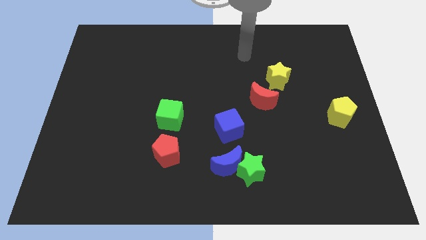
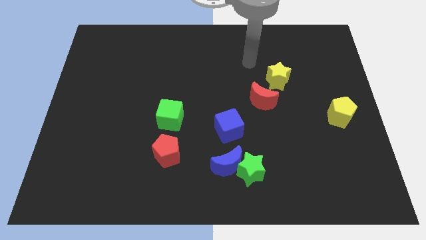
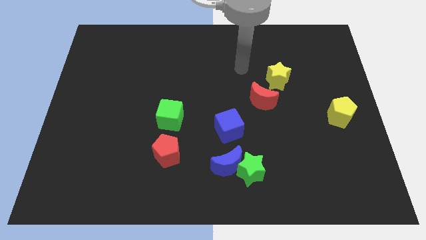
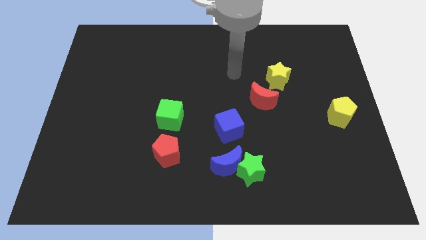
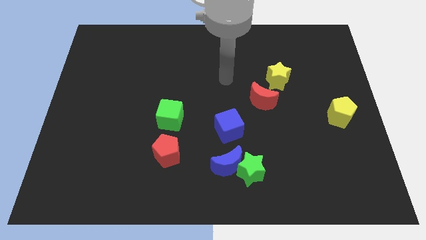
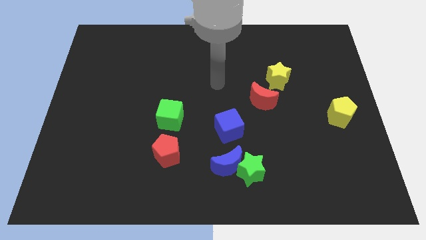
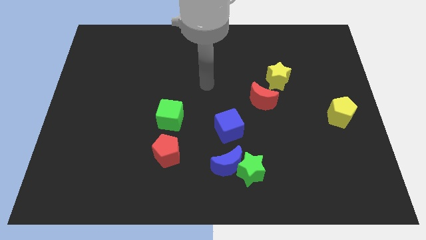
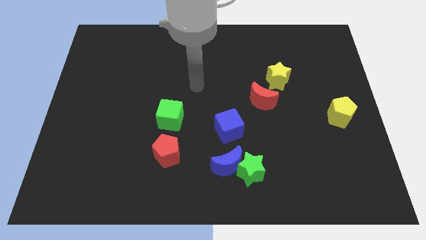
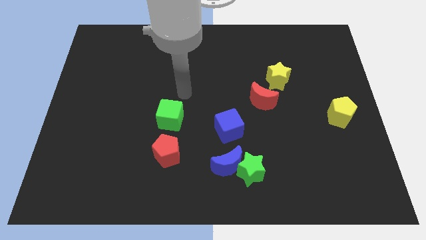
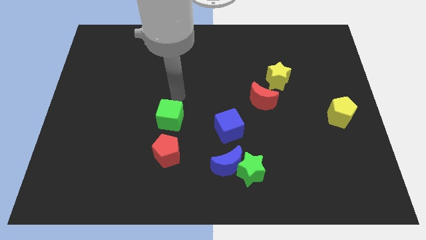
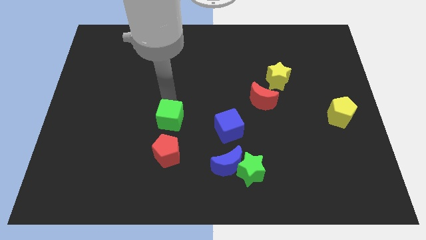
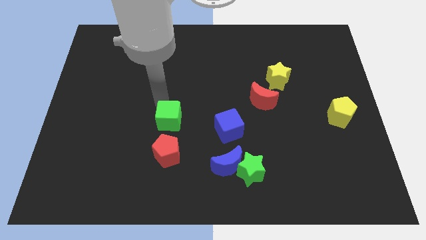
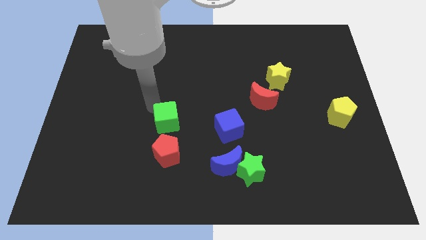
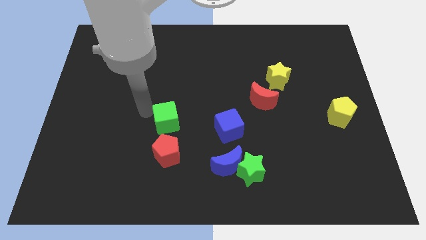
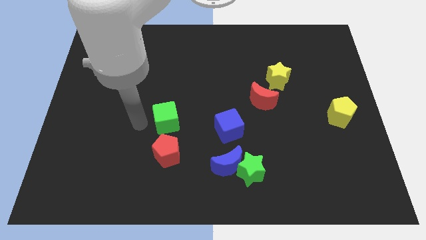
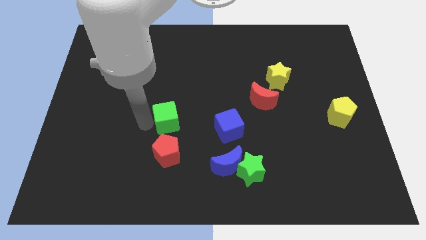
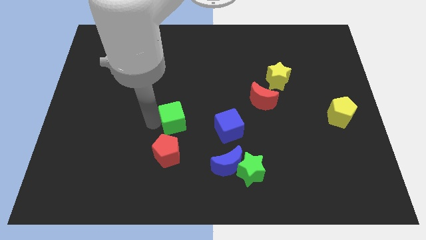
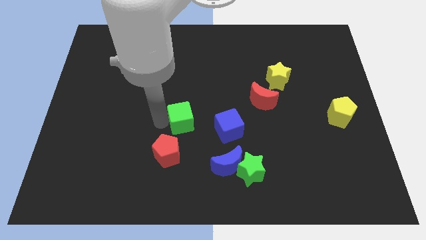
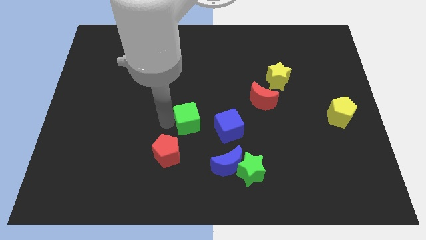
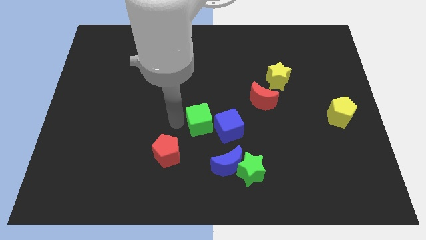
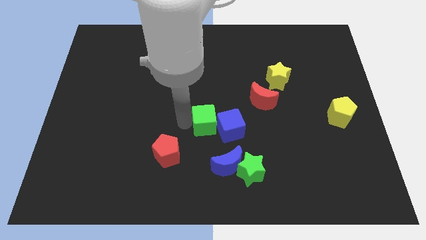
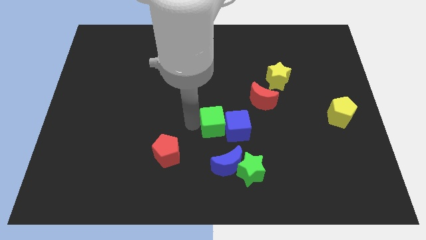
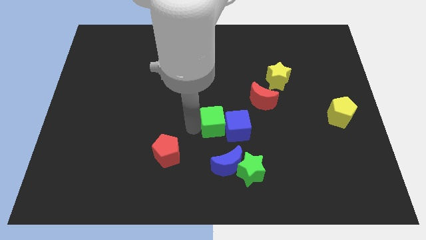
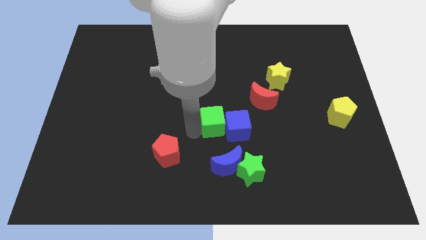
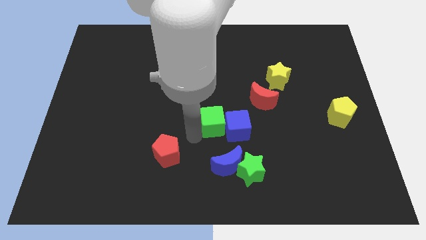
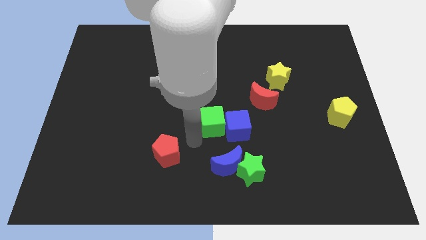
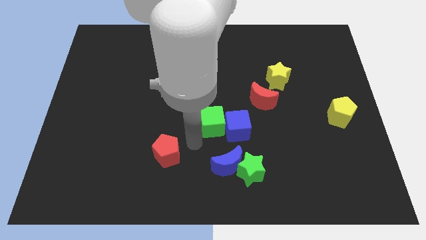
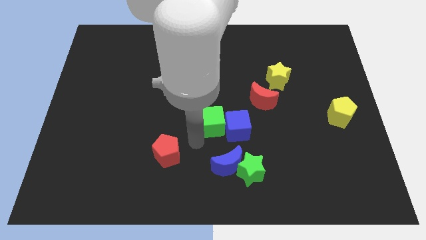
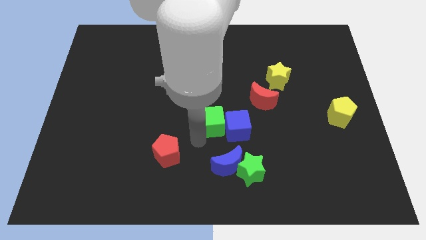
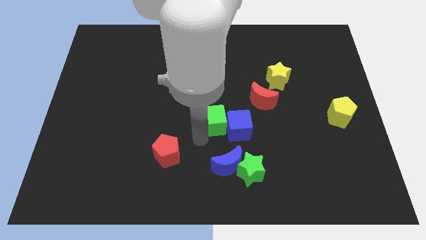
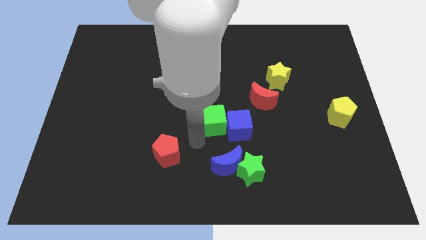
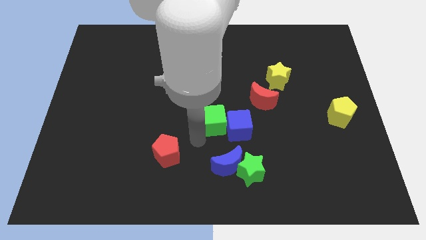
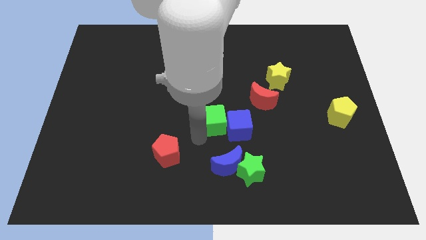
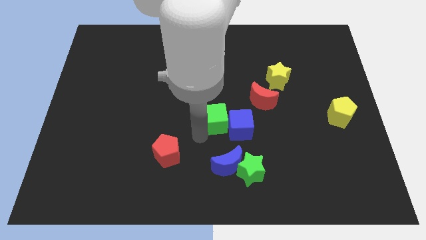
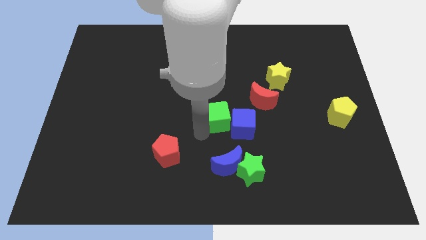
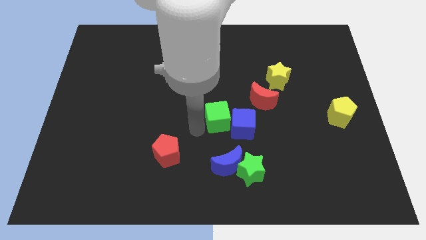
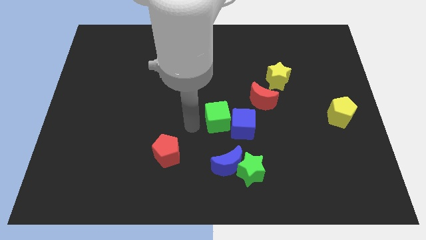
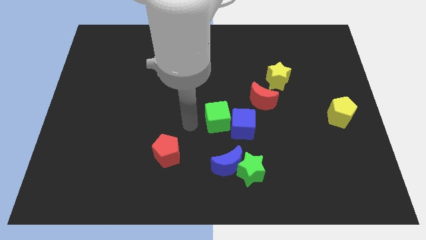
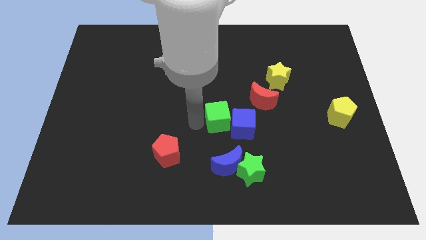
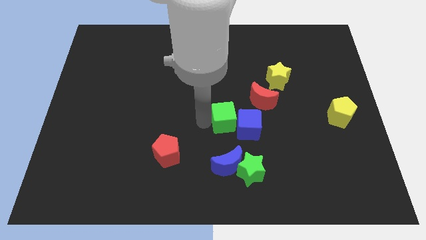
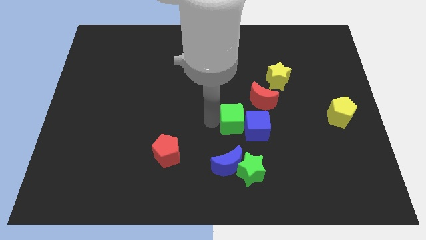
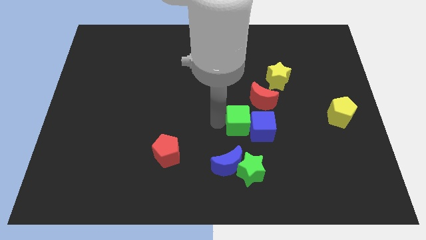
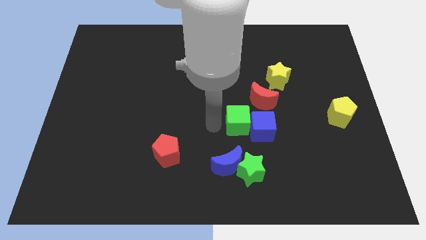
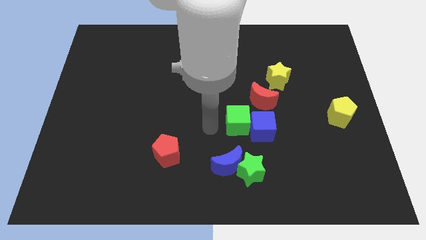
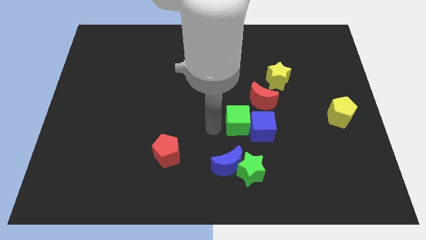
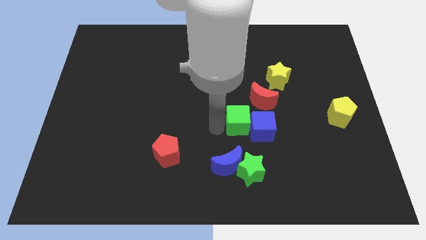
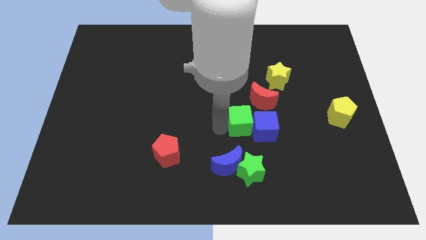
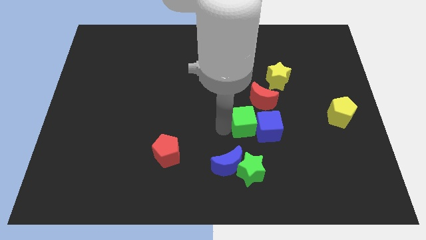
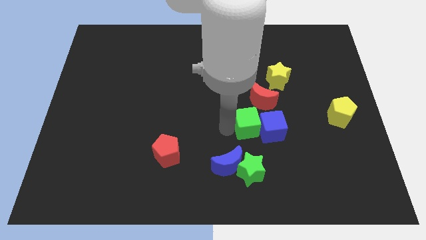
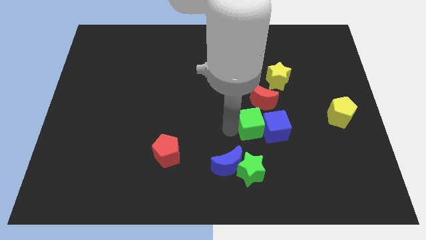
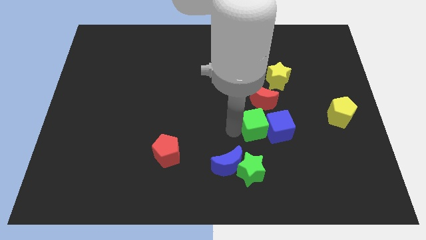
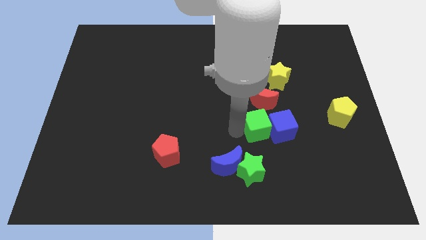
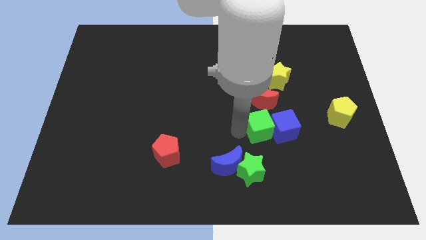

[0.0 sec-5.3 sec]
push the green cube to the right

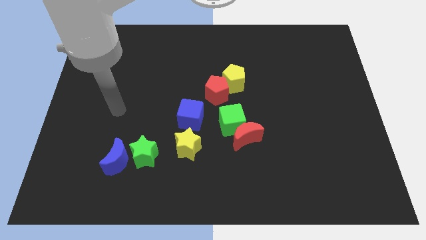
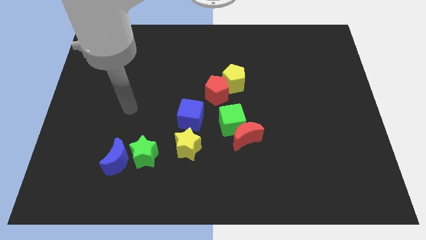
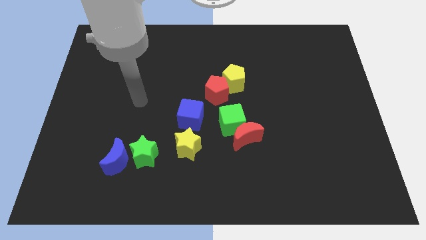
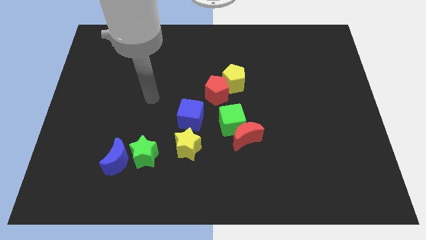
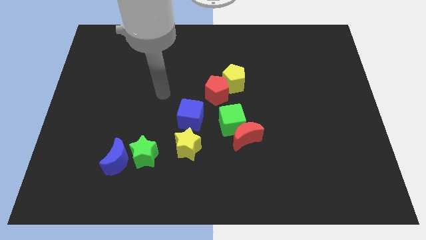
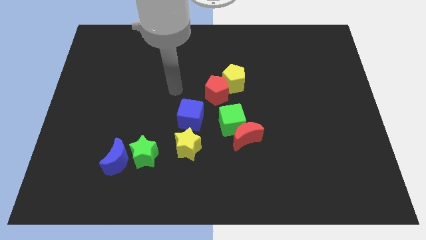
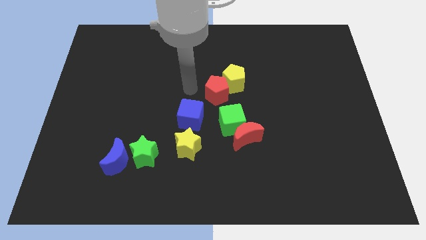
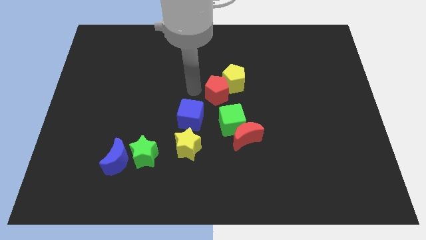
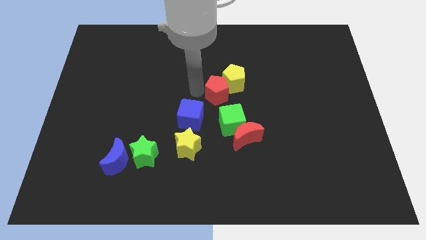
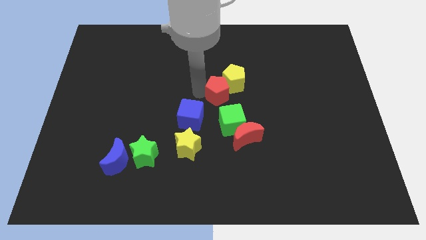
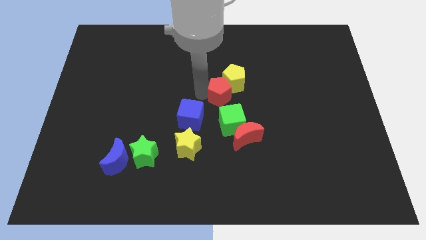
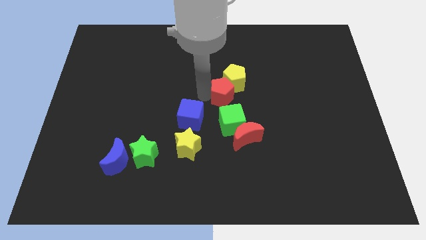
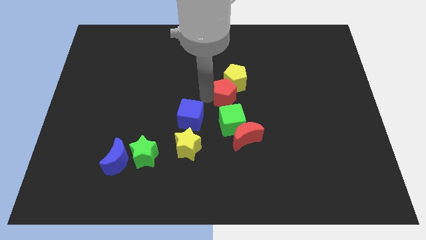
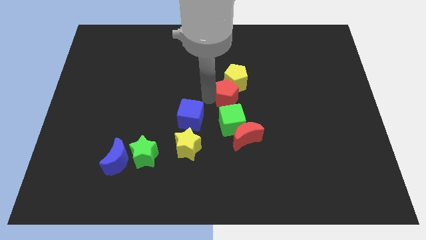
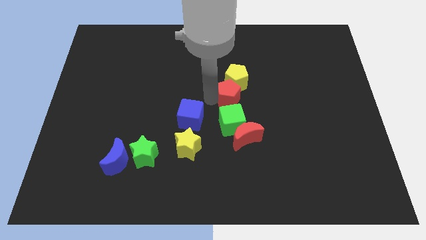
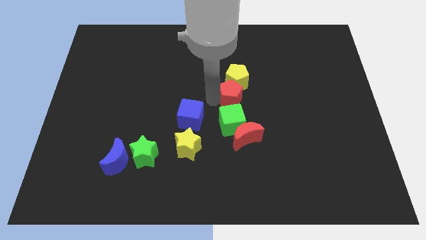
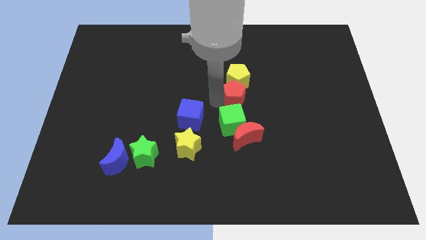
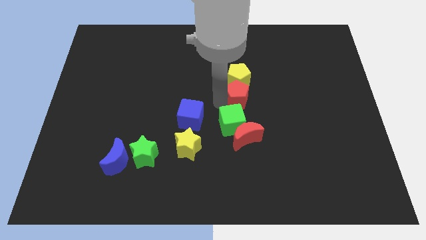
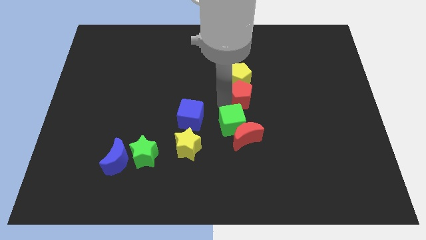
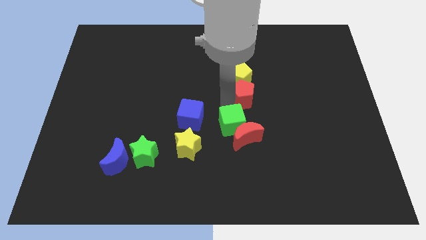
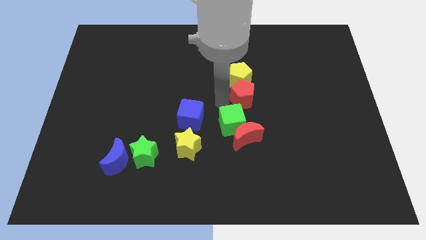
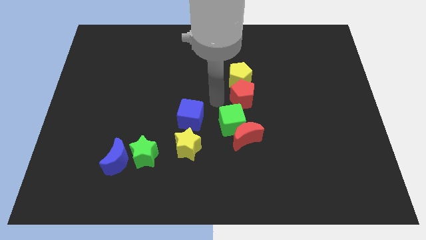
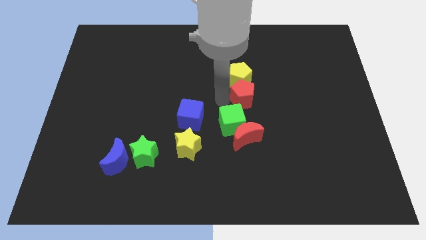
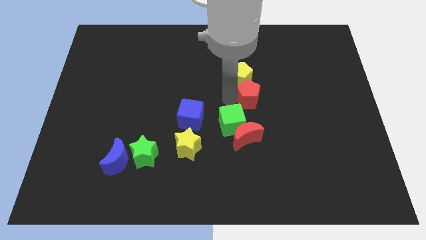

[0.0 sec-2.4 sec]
slide the red pentagon a bit to the right
